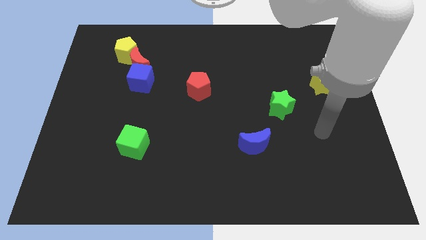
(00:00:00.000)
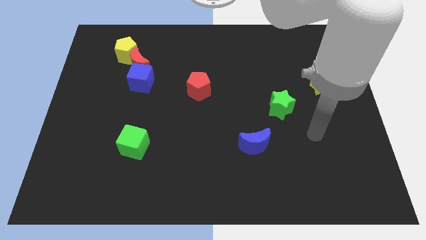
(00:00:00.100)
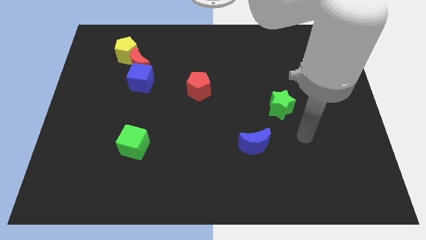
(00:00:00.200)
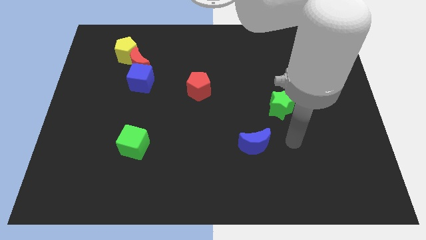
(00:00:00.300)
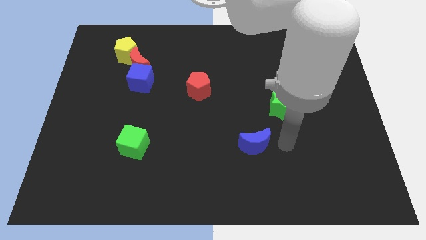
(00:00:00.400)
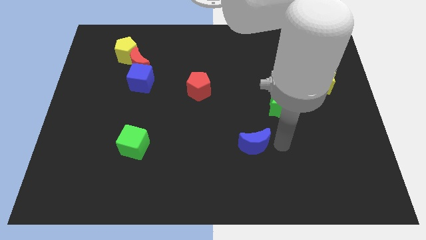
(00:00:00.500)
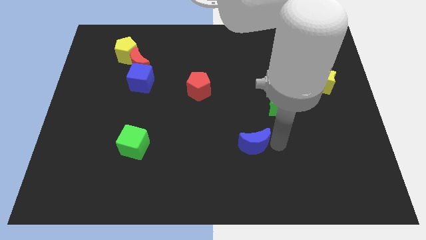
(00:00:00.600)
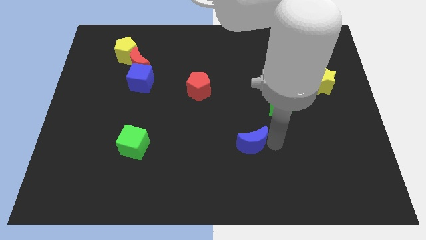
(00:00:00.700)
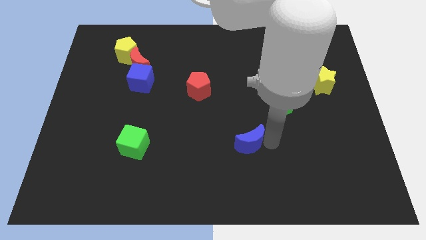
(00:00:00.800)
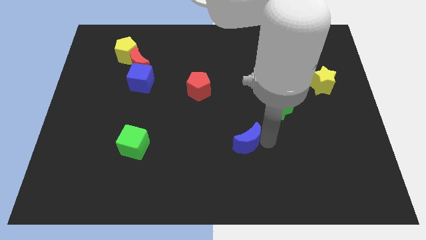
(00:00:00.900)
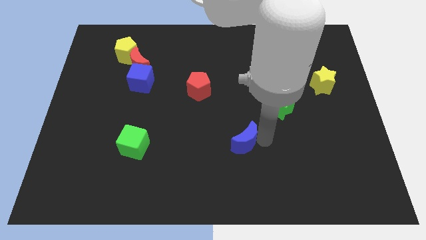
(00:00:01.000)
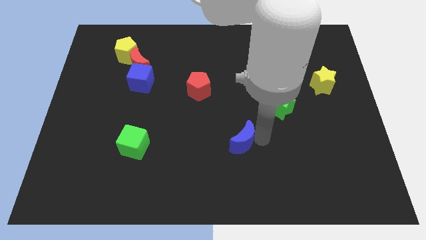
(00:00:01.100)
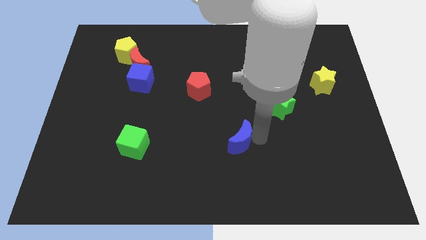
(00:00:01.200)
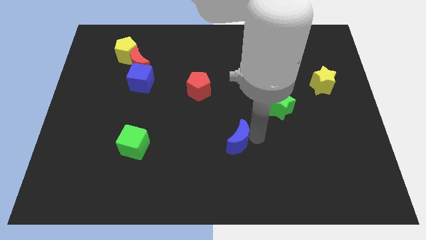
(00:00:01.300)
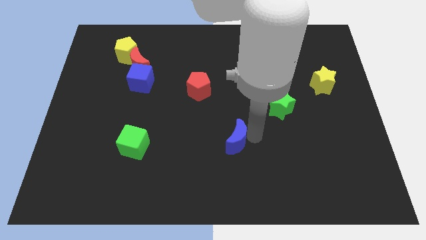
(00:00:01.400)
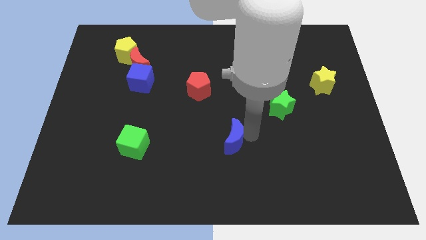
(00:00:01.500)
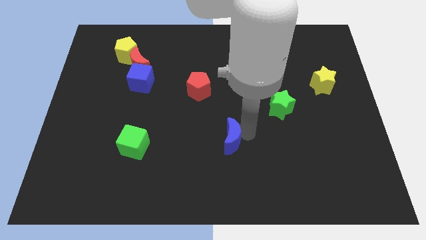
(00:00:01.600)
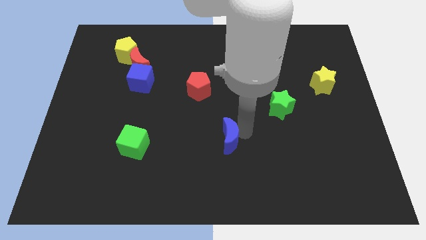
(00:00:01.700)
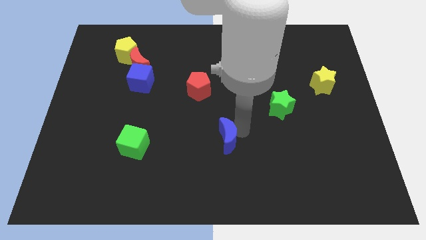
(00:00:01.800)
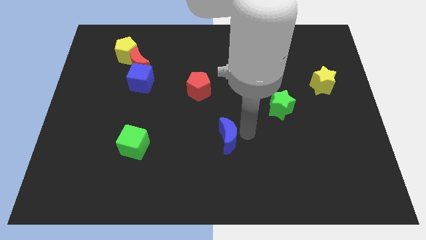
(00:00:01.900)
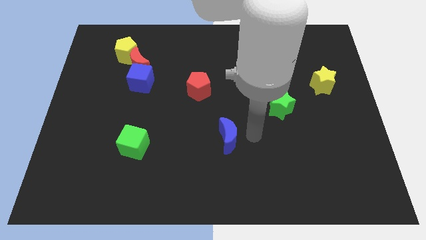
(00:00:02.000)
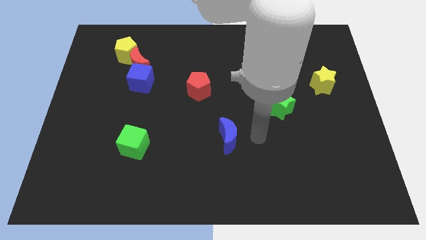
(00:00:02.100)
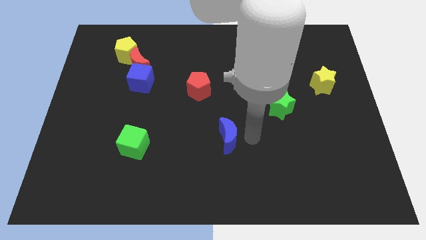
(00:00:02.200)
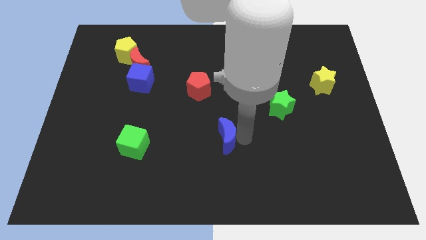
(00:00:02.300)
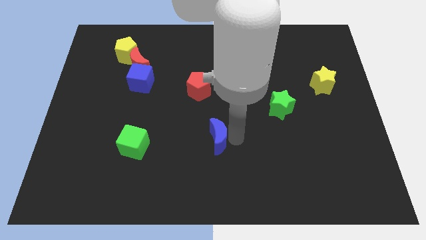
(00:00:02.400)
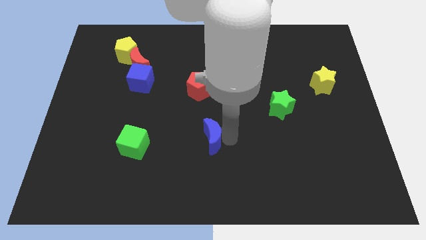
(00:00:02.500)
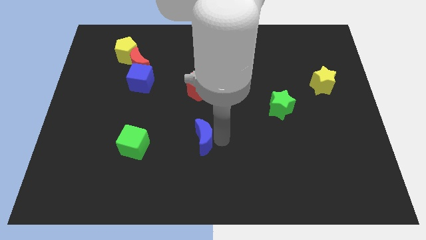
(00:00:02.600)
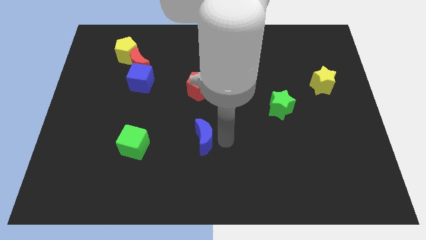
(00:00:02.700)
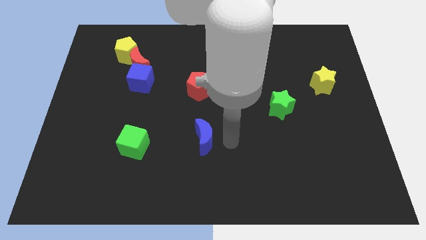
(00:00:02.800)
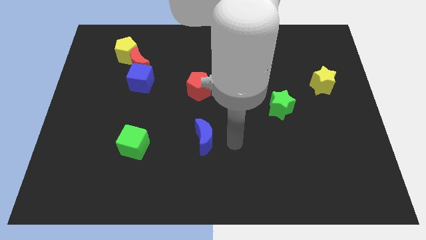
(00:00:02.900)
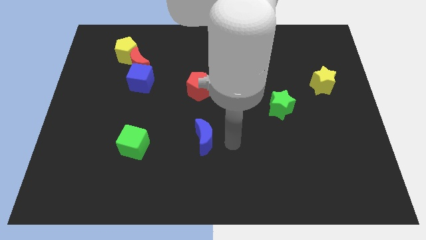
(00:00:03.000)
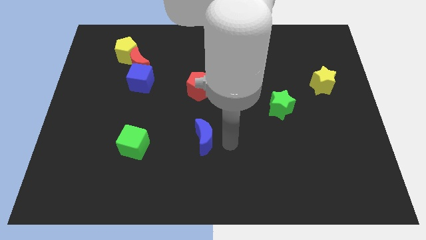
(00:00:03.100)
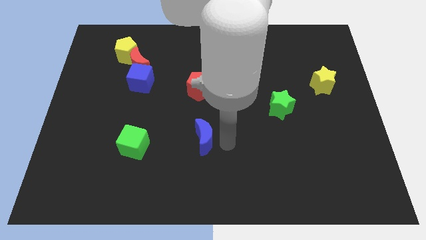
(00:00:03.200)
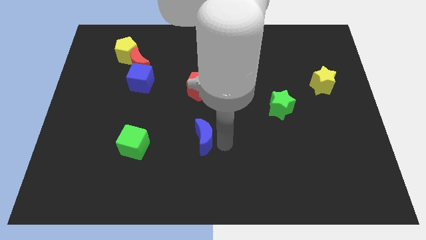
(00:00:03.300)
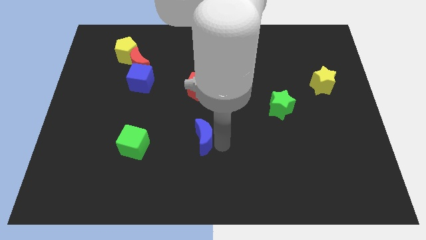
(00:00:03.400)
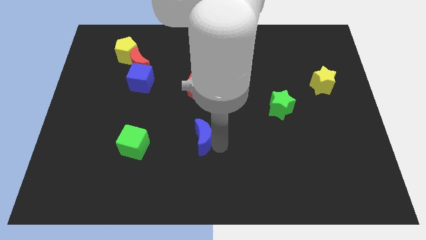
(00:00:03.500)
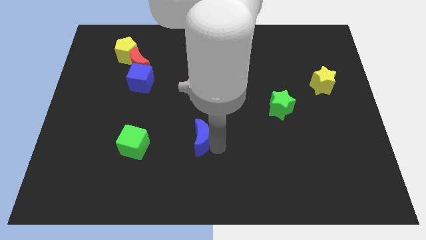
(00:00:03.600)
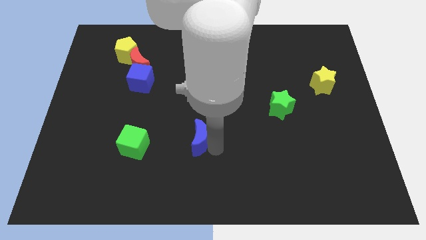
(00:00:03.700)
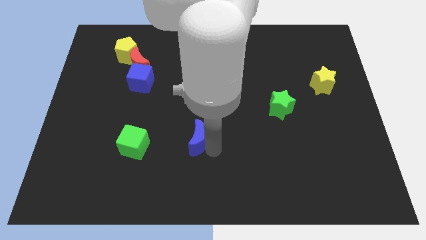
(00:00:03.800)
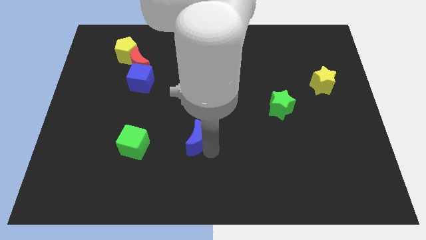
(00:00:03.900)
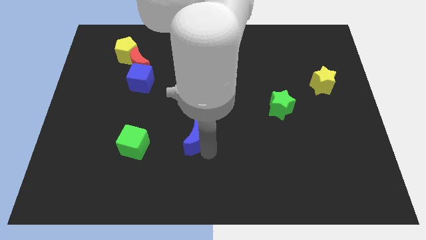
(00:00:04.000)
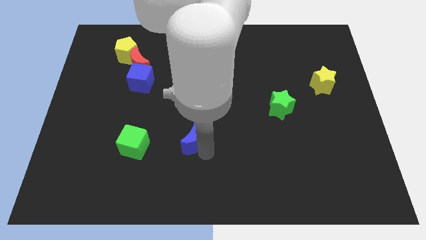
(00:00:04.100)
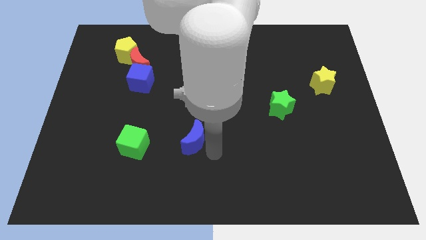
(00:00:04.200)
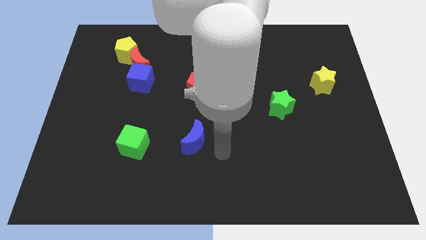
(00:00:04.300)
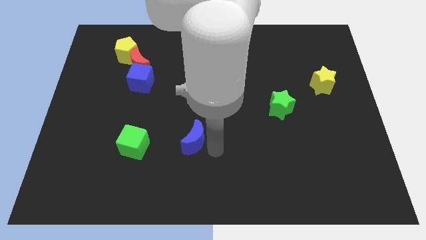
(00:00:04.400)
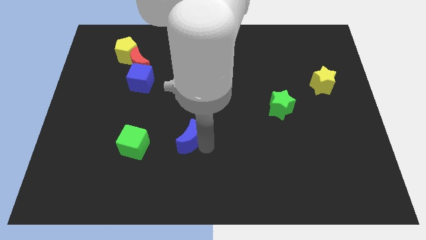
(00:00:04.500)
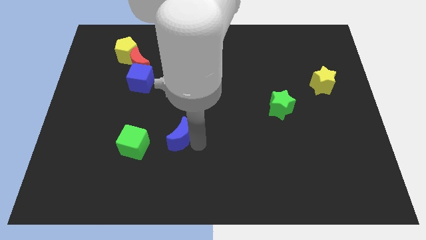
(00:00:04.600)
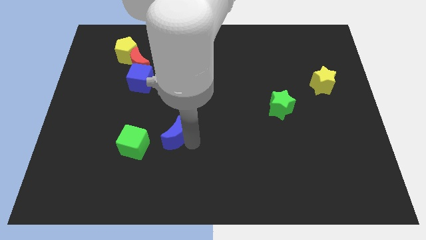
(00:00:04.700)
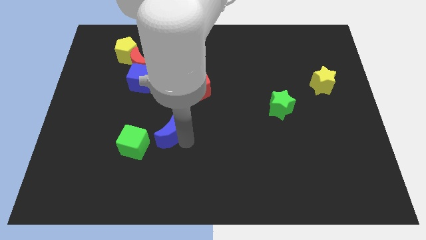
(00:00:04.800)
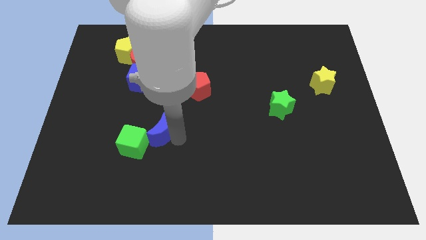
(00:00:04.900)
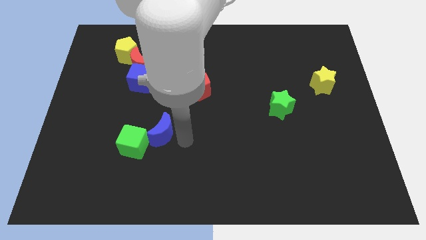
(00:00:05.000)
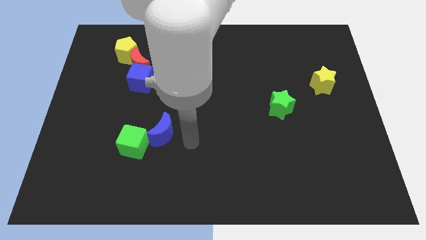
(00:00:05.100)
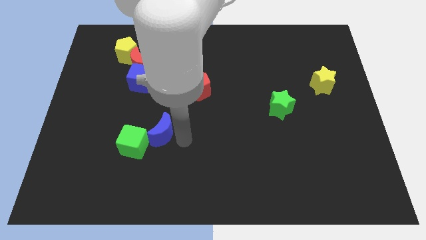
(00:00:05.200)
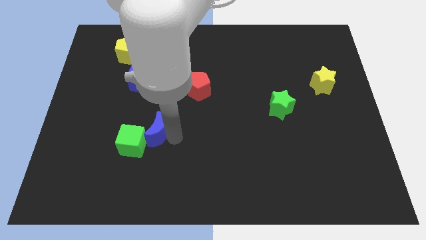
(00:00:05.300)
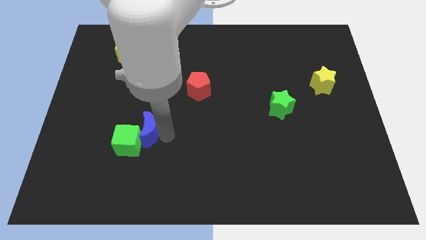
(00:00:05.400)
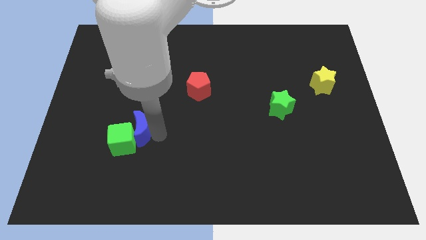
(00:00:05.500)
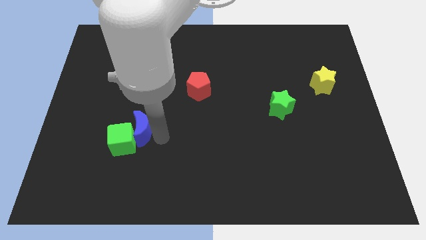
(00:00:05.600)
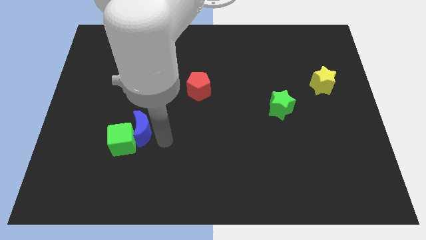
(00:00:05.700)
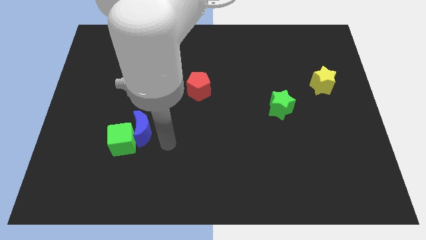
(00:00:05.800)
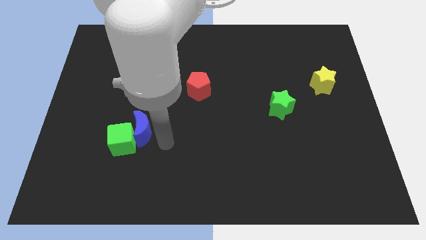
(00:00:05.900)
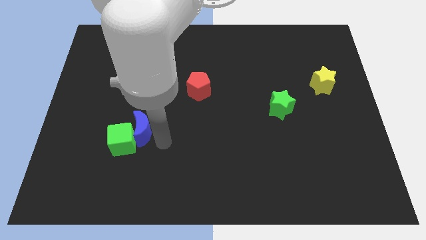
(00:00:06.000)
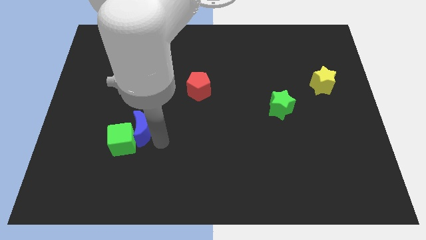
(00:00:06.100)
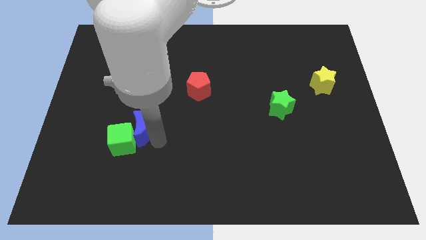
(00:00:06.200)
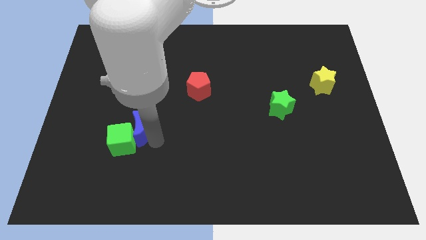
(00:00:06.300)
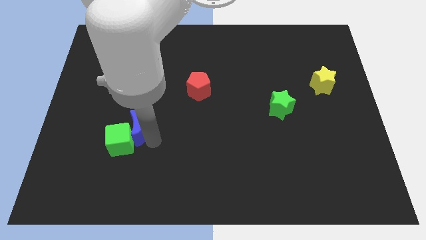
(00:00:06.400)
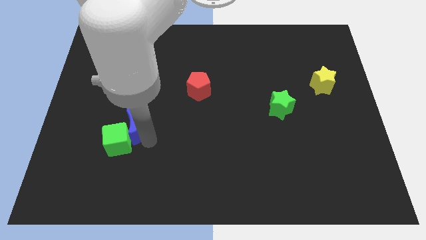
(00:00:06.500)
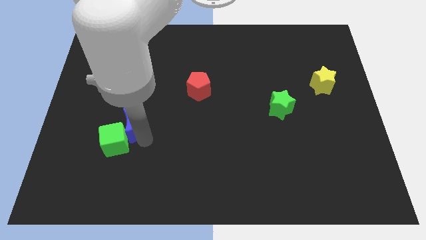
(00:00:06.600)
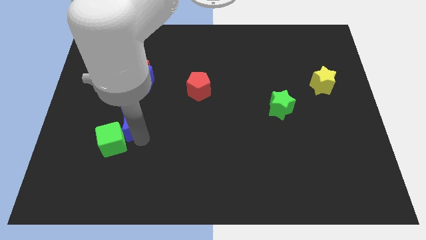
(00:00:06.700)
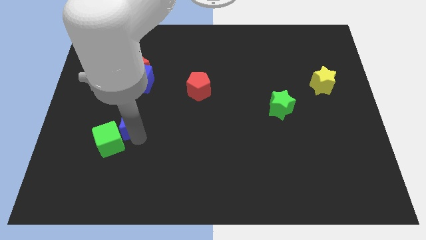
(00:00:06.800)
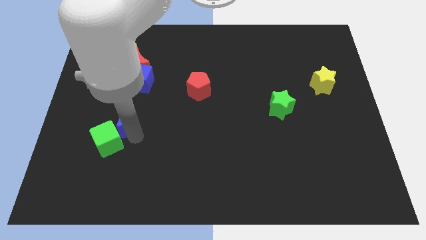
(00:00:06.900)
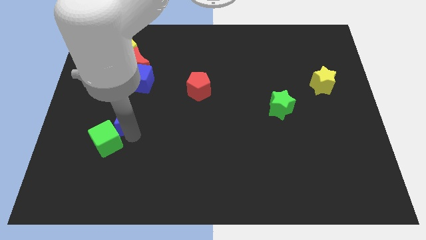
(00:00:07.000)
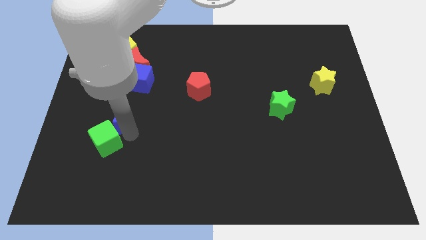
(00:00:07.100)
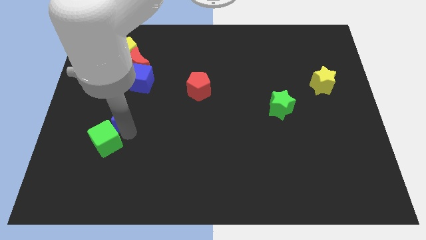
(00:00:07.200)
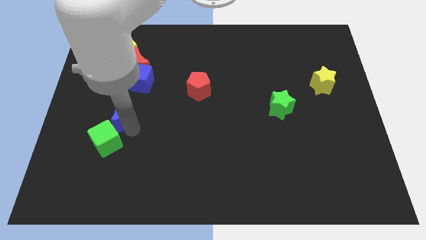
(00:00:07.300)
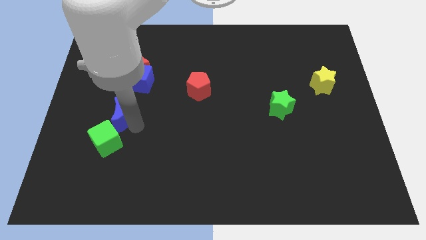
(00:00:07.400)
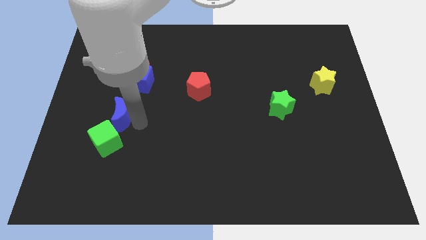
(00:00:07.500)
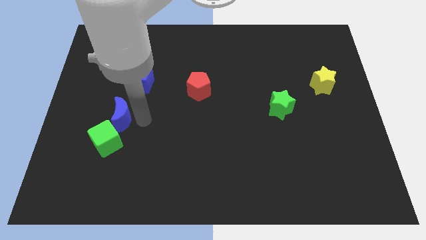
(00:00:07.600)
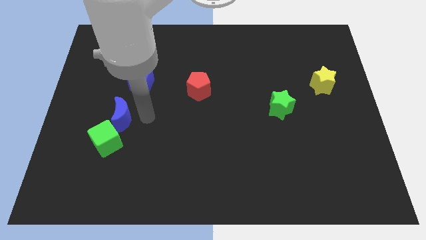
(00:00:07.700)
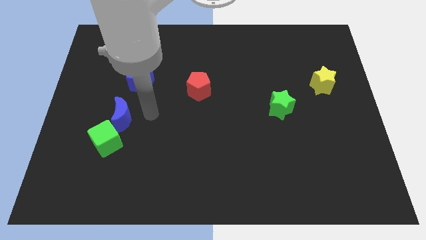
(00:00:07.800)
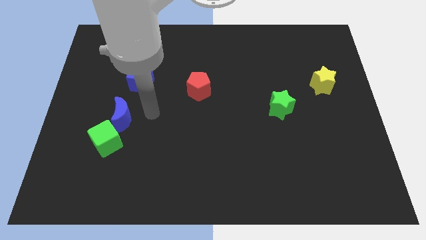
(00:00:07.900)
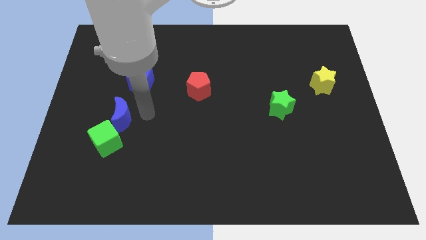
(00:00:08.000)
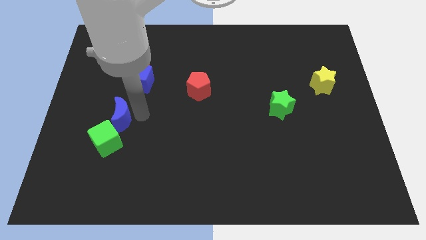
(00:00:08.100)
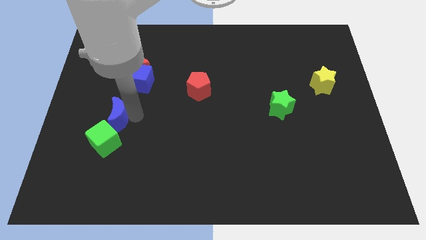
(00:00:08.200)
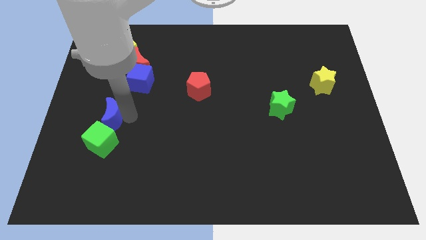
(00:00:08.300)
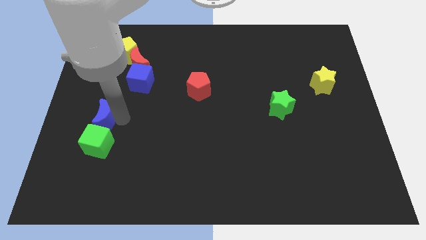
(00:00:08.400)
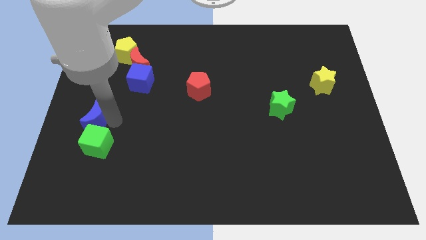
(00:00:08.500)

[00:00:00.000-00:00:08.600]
push the blue moon to the left side of the board
